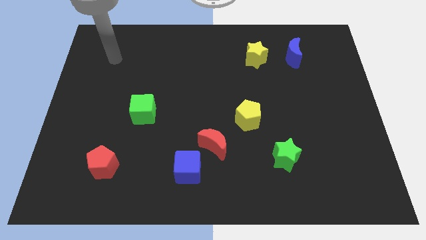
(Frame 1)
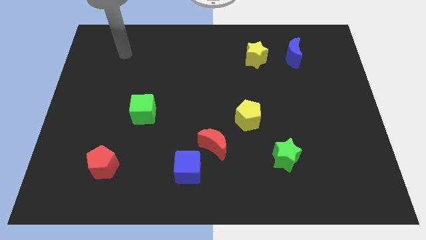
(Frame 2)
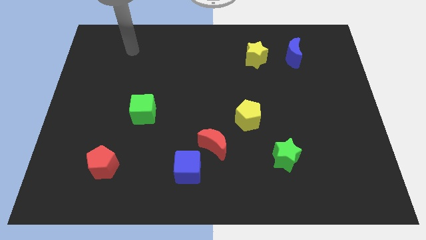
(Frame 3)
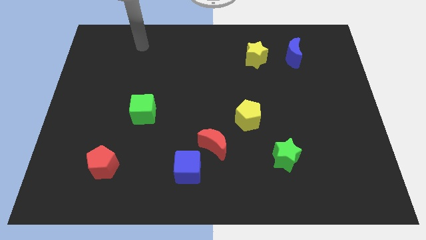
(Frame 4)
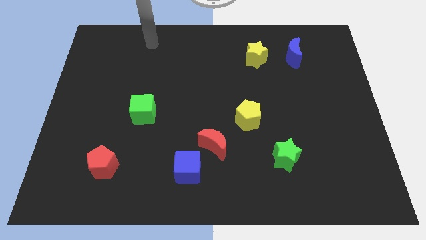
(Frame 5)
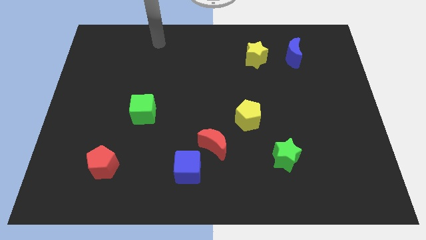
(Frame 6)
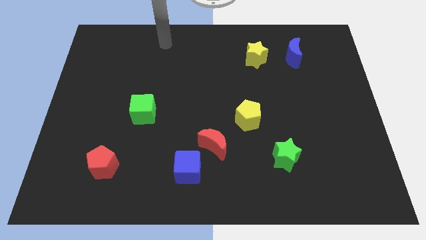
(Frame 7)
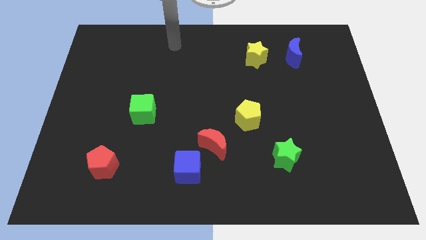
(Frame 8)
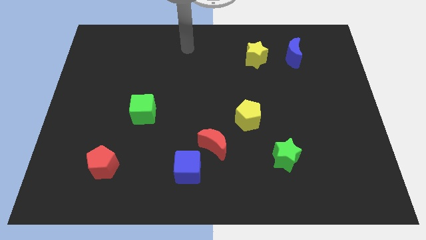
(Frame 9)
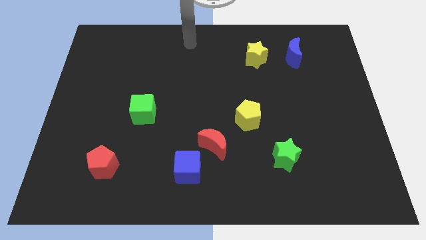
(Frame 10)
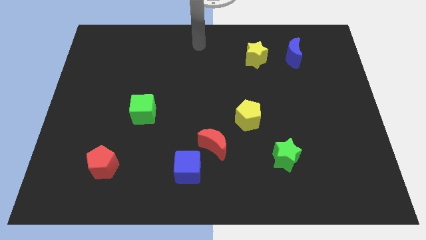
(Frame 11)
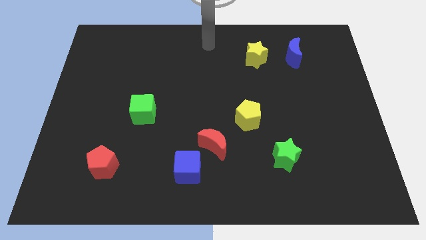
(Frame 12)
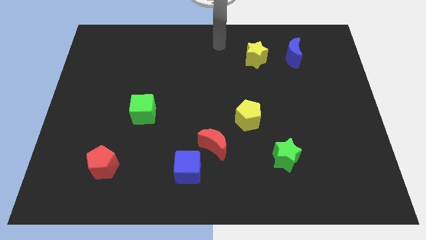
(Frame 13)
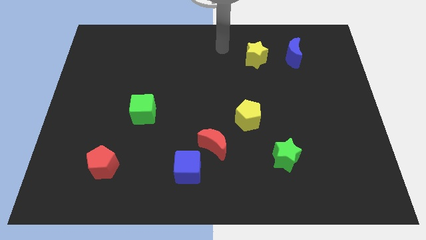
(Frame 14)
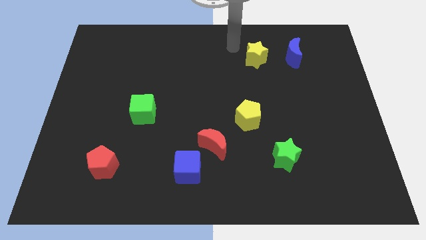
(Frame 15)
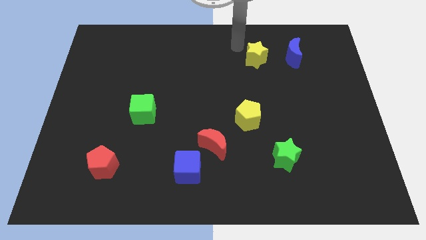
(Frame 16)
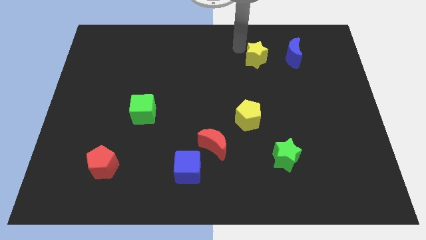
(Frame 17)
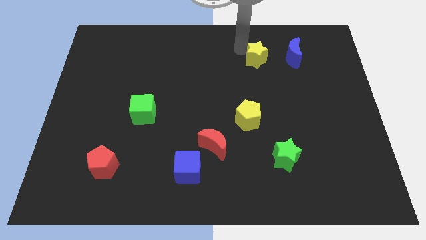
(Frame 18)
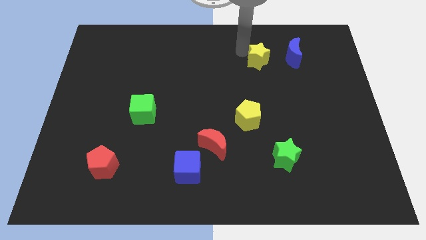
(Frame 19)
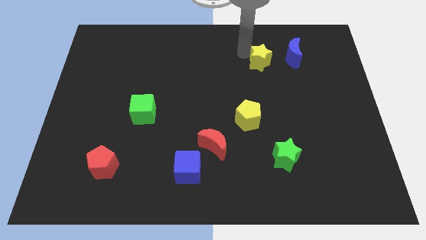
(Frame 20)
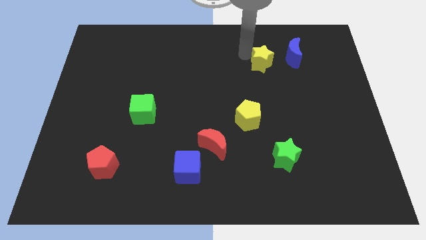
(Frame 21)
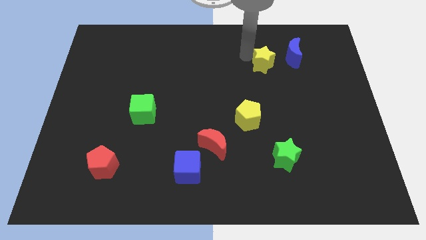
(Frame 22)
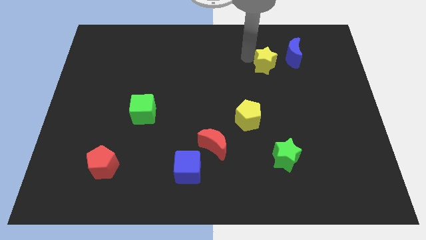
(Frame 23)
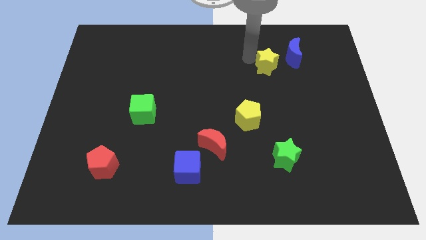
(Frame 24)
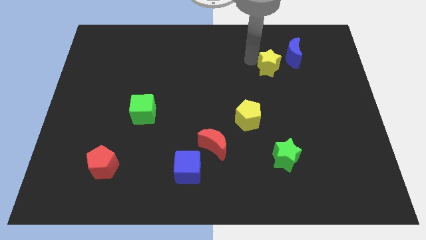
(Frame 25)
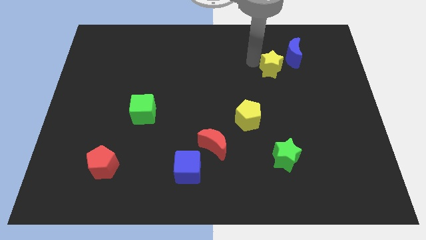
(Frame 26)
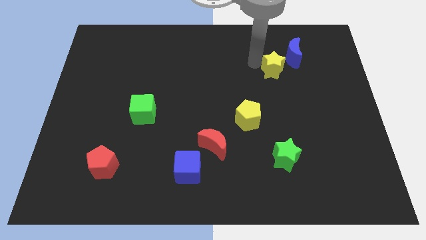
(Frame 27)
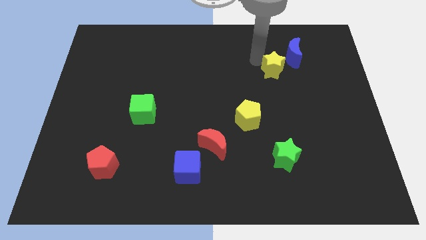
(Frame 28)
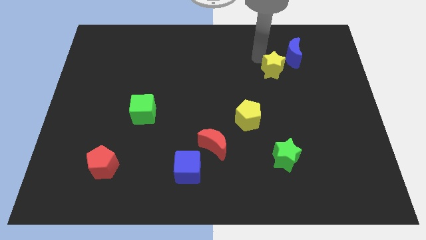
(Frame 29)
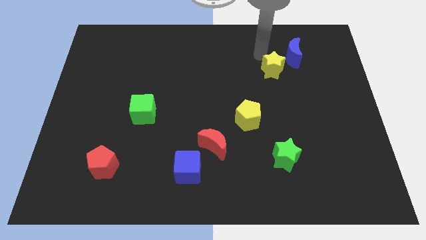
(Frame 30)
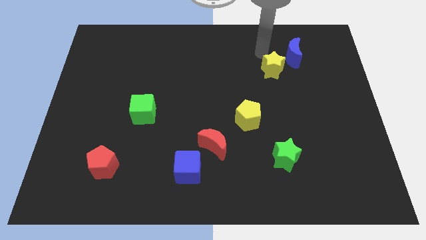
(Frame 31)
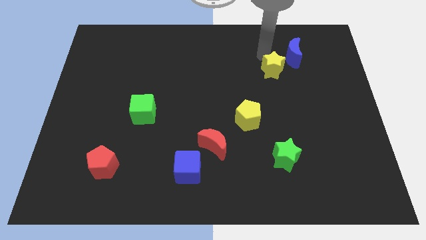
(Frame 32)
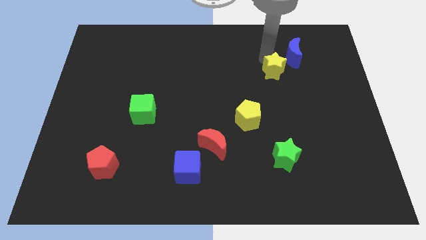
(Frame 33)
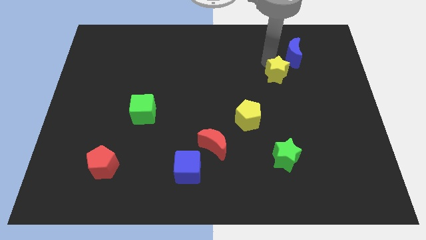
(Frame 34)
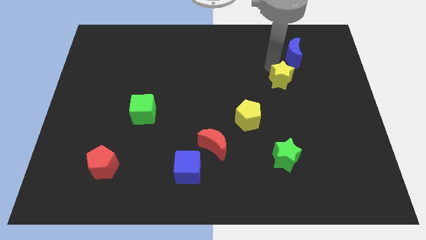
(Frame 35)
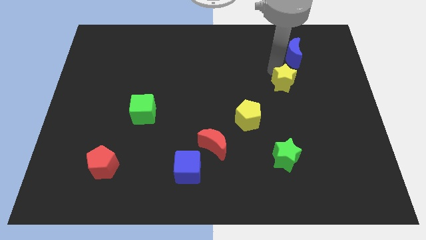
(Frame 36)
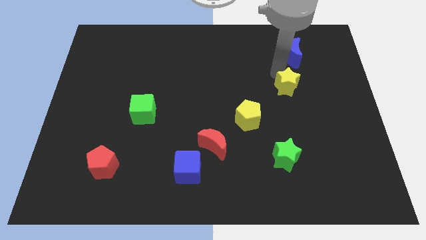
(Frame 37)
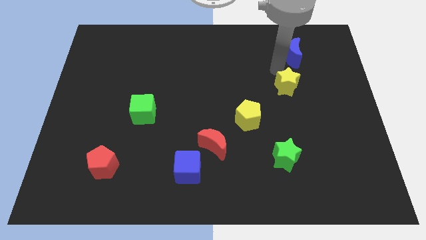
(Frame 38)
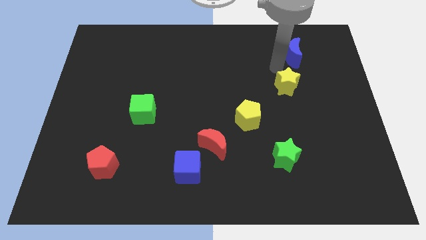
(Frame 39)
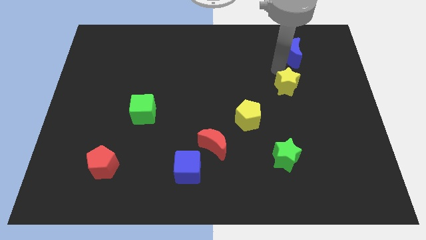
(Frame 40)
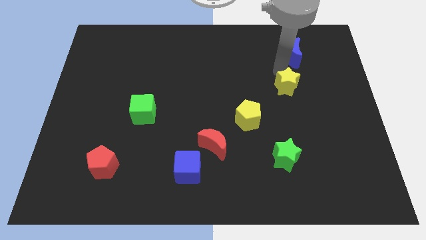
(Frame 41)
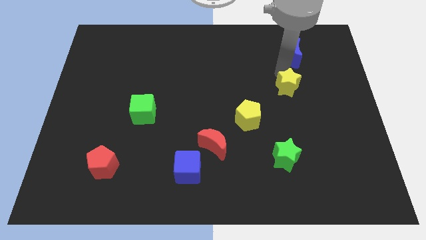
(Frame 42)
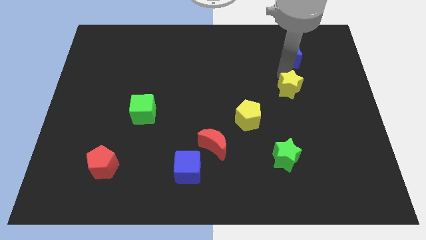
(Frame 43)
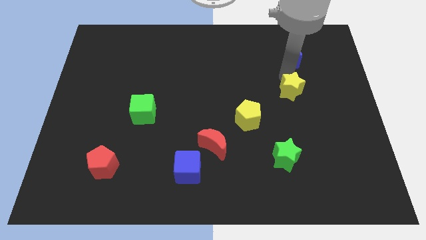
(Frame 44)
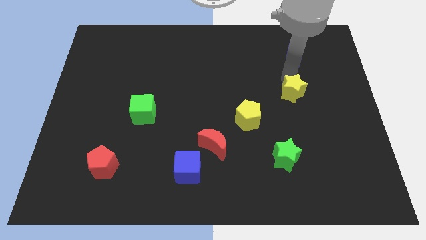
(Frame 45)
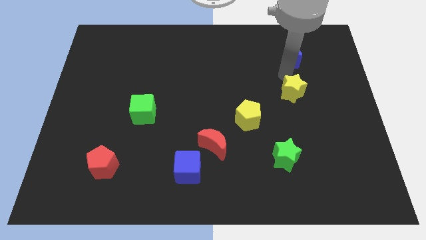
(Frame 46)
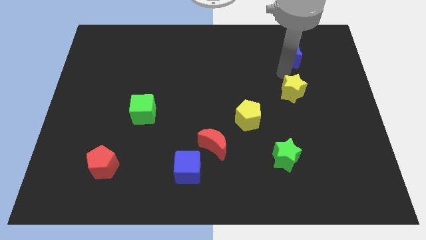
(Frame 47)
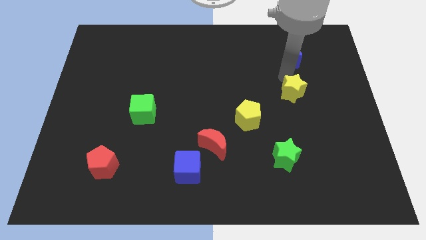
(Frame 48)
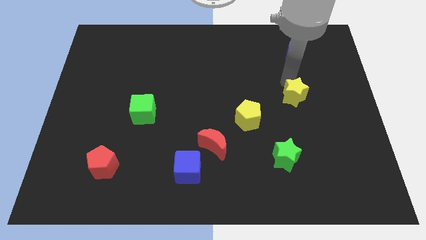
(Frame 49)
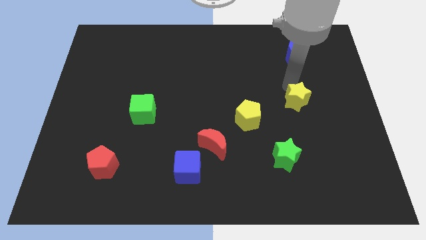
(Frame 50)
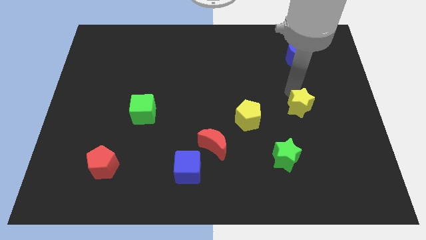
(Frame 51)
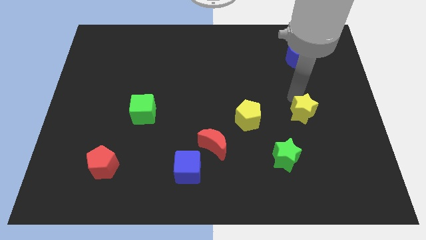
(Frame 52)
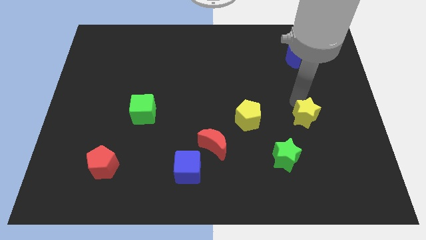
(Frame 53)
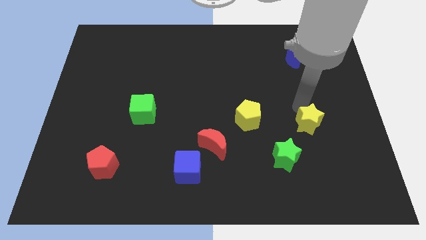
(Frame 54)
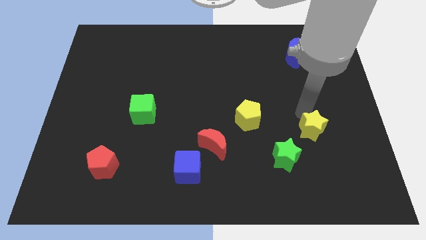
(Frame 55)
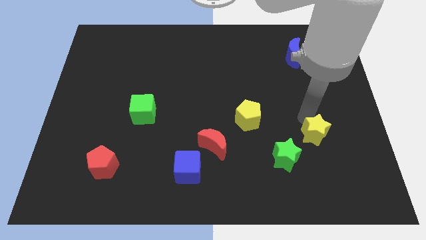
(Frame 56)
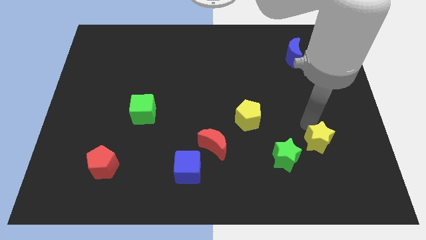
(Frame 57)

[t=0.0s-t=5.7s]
put the yellow star right of the green star

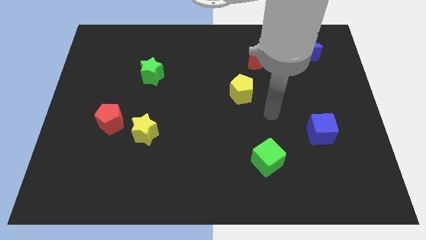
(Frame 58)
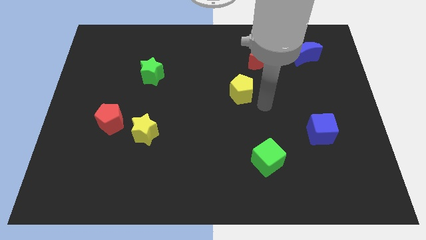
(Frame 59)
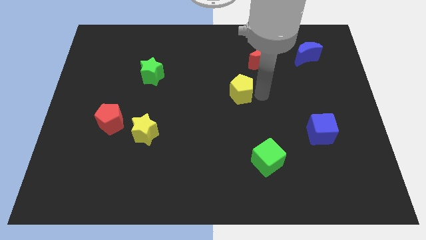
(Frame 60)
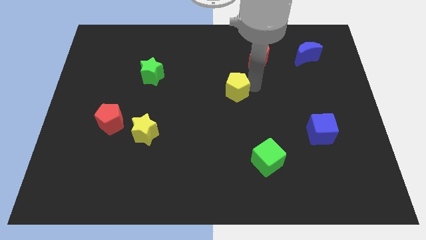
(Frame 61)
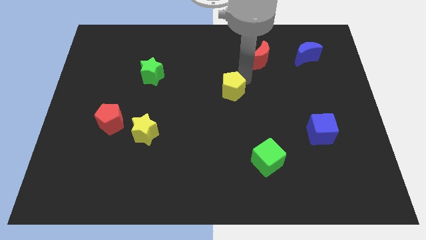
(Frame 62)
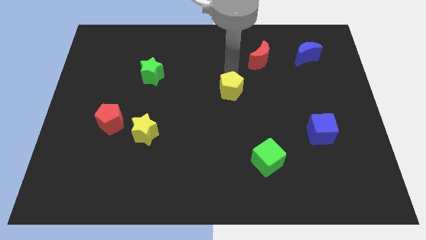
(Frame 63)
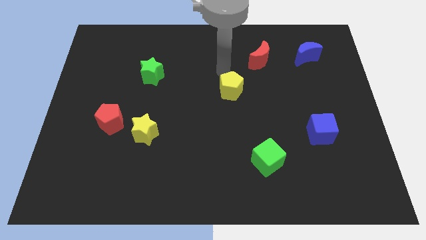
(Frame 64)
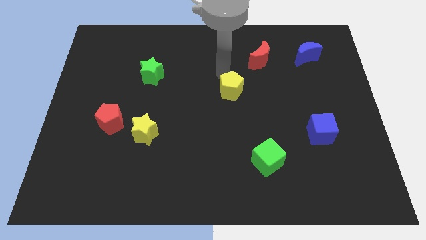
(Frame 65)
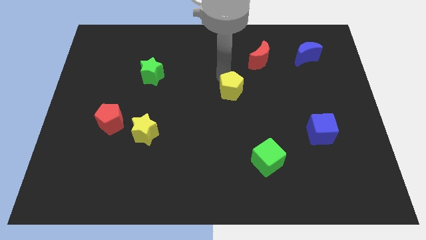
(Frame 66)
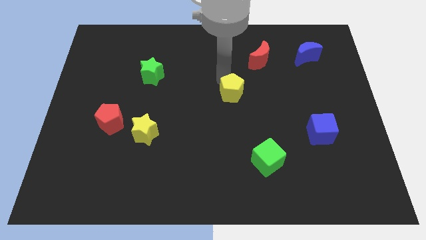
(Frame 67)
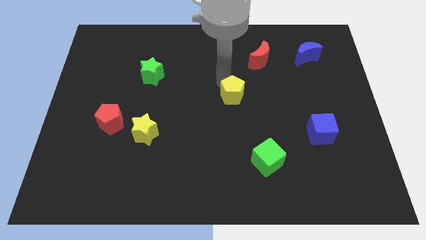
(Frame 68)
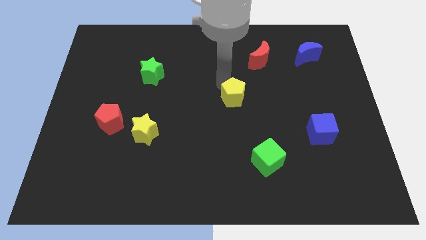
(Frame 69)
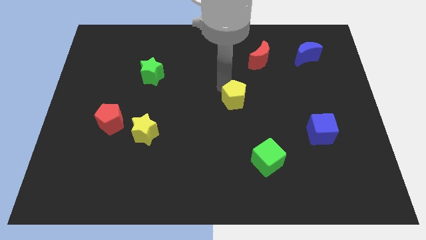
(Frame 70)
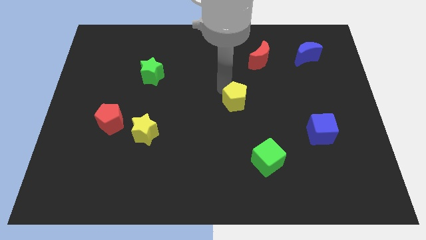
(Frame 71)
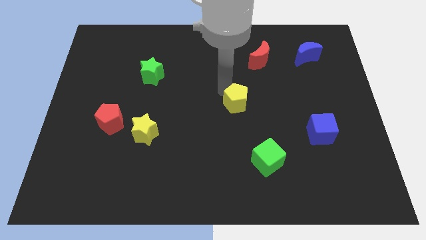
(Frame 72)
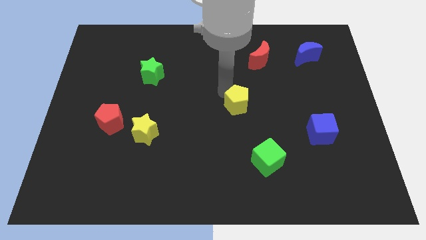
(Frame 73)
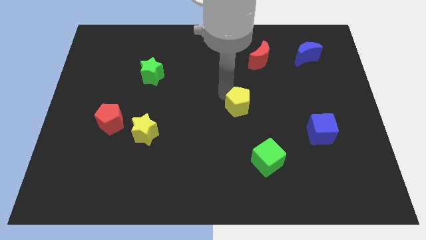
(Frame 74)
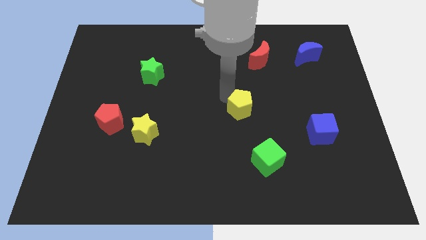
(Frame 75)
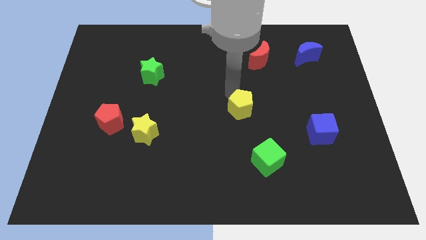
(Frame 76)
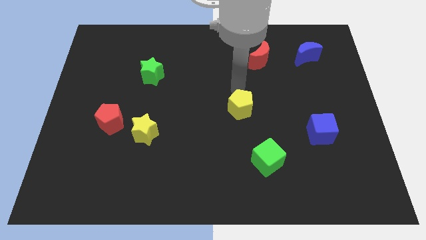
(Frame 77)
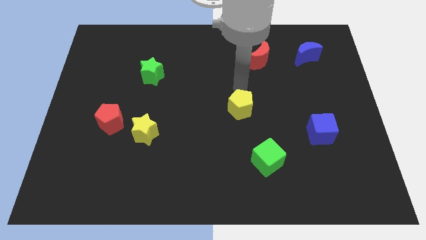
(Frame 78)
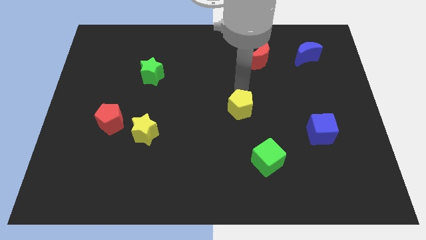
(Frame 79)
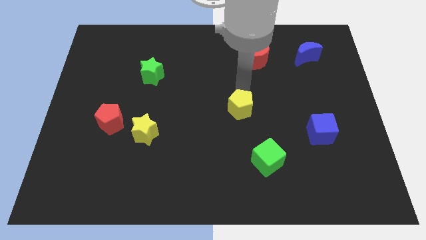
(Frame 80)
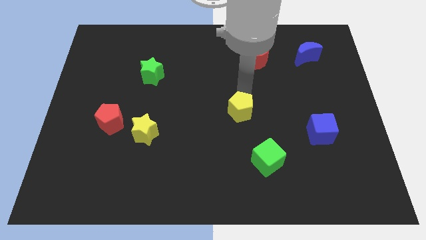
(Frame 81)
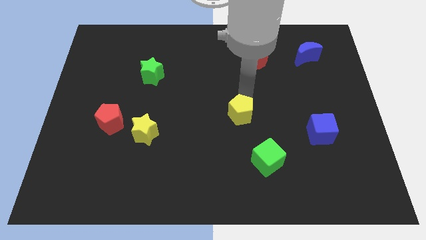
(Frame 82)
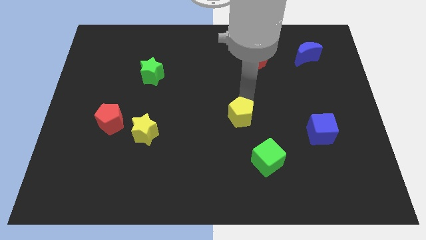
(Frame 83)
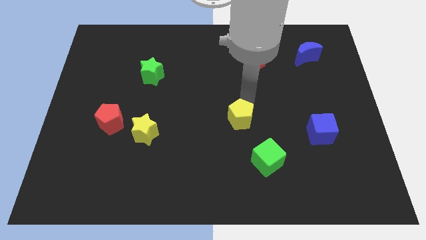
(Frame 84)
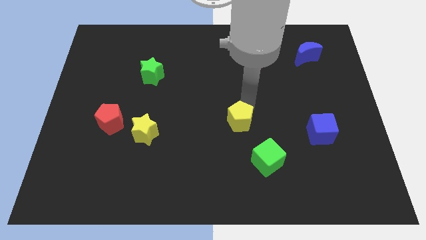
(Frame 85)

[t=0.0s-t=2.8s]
push the yellow pentagon diagonally up and to the left of the green cube
